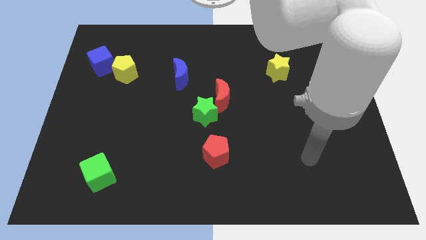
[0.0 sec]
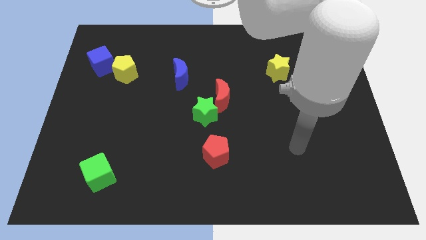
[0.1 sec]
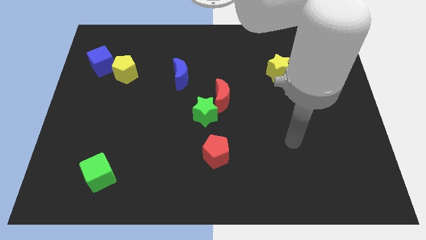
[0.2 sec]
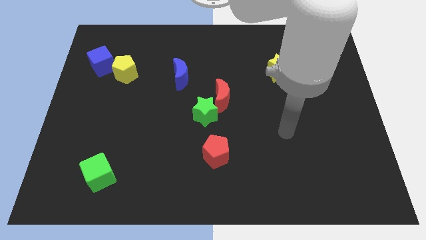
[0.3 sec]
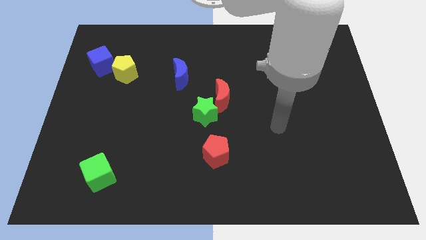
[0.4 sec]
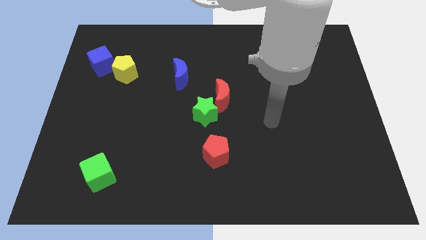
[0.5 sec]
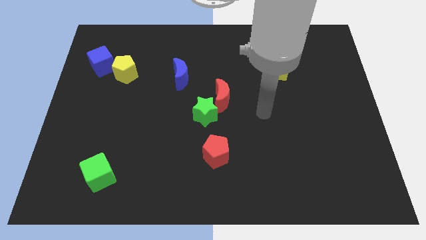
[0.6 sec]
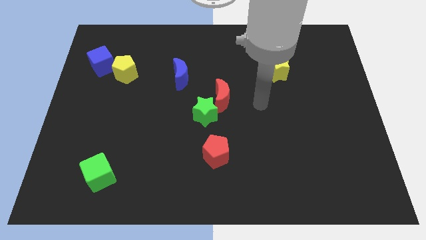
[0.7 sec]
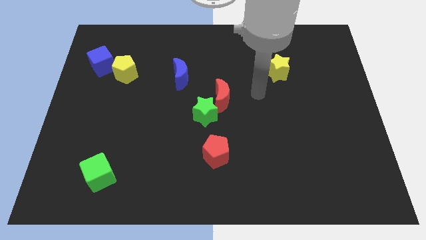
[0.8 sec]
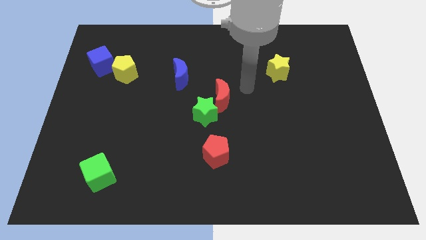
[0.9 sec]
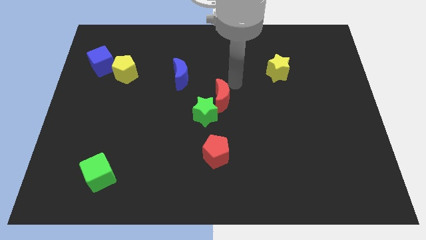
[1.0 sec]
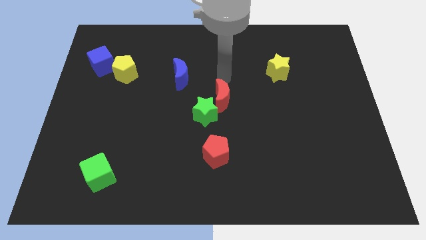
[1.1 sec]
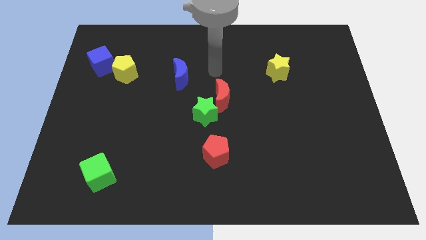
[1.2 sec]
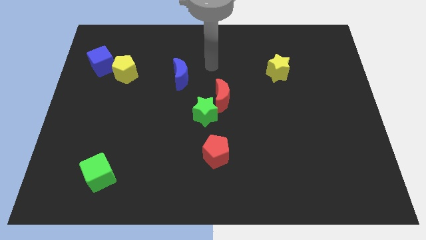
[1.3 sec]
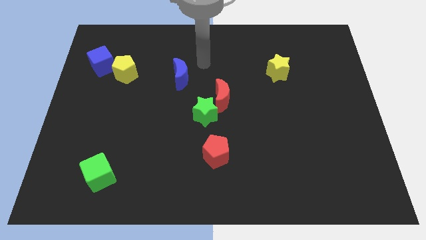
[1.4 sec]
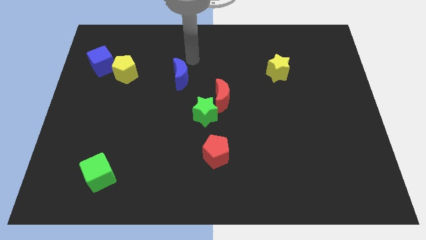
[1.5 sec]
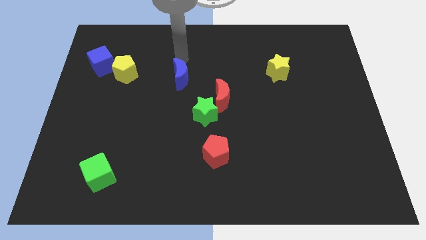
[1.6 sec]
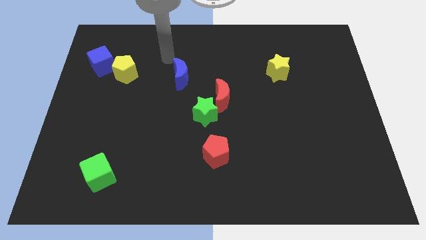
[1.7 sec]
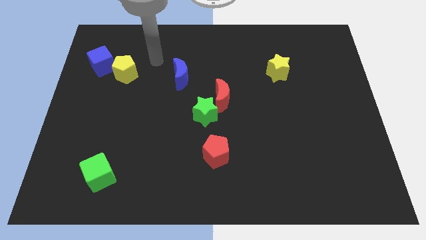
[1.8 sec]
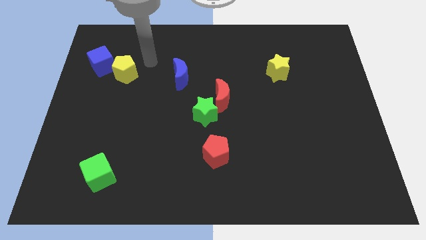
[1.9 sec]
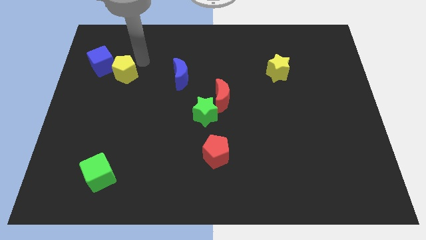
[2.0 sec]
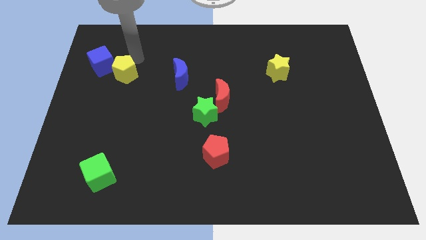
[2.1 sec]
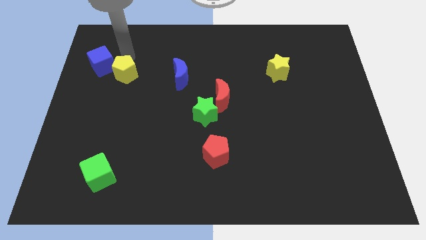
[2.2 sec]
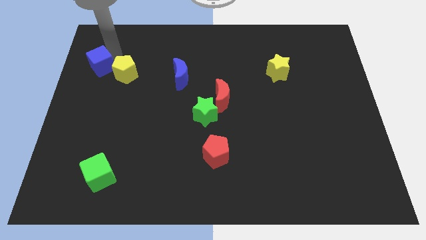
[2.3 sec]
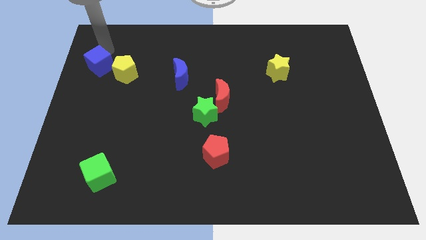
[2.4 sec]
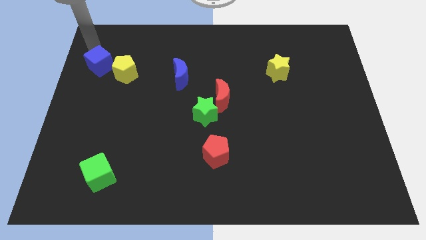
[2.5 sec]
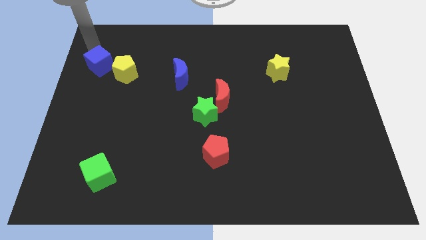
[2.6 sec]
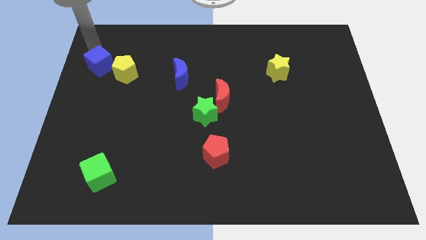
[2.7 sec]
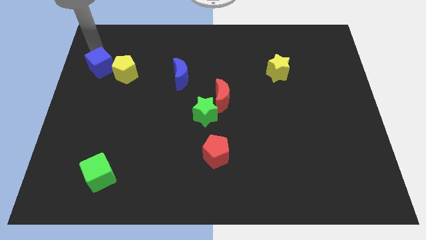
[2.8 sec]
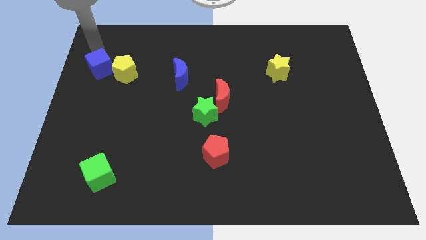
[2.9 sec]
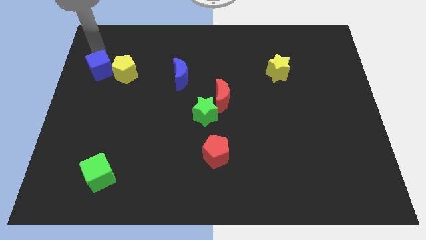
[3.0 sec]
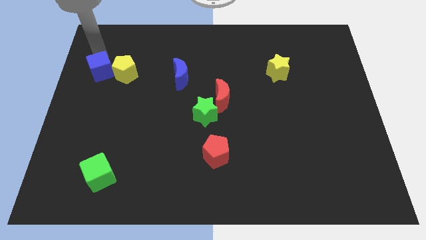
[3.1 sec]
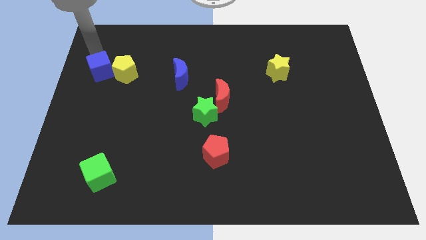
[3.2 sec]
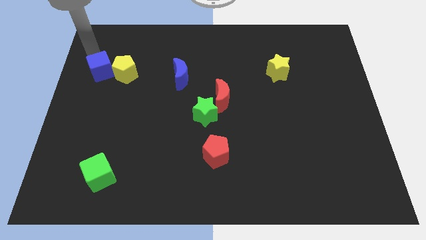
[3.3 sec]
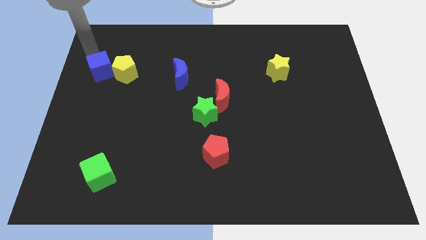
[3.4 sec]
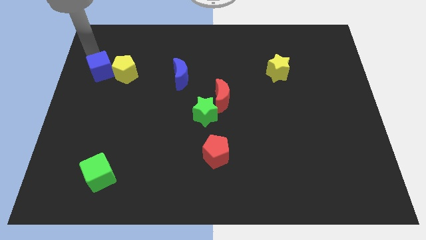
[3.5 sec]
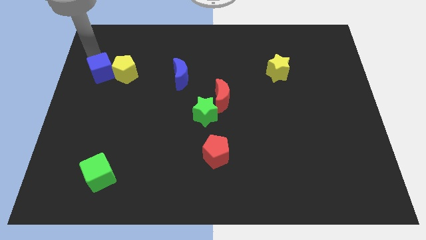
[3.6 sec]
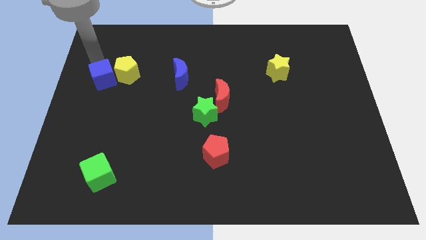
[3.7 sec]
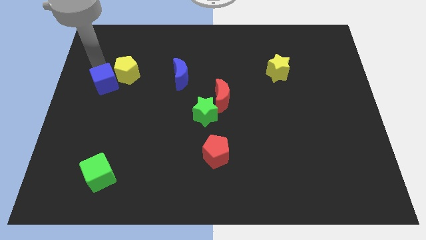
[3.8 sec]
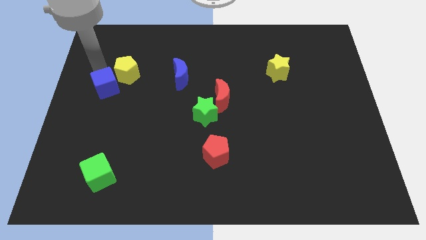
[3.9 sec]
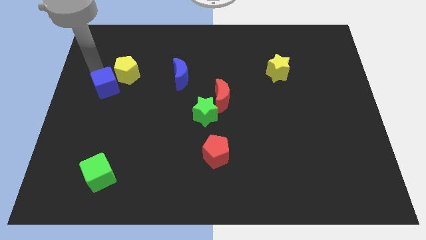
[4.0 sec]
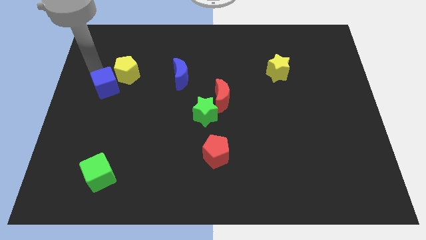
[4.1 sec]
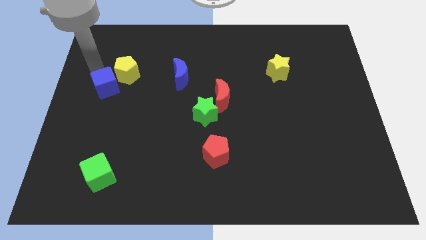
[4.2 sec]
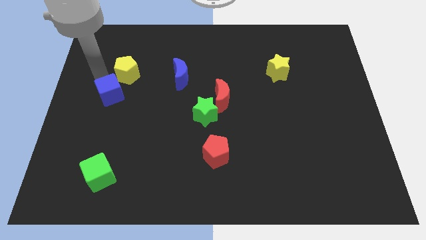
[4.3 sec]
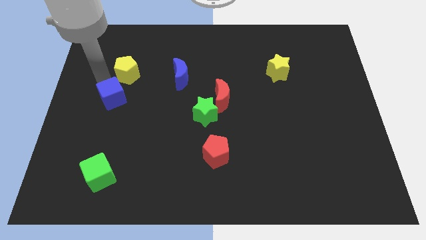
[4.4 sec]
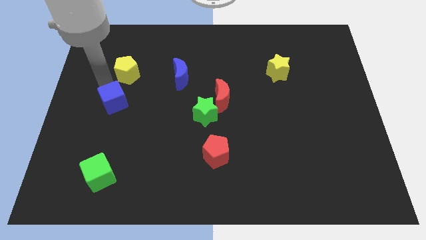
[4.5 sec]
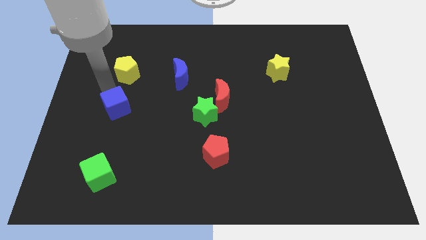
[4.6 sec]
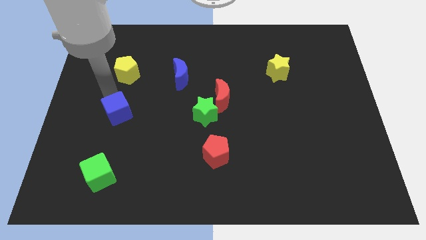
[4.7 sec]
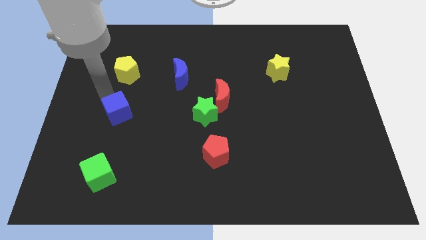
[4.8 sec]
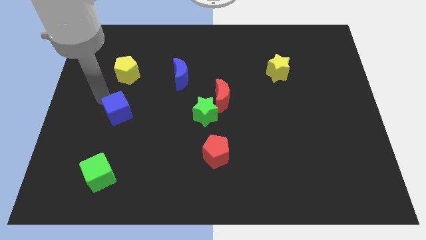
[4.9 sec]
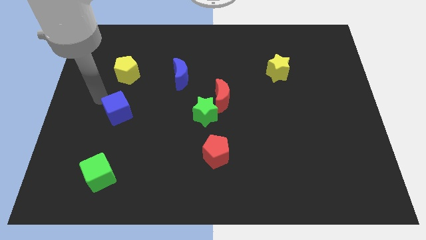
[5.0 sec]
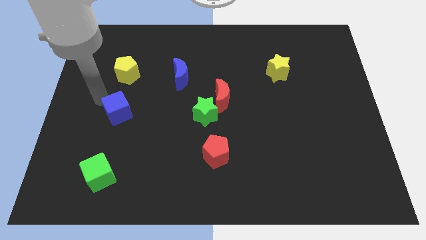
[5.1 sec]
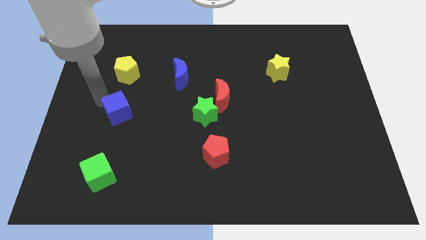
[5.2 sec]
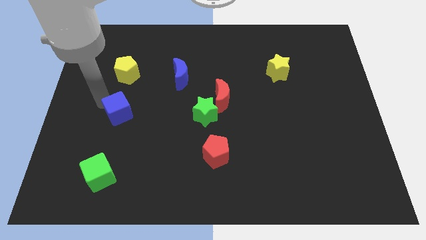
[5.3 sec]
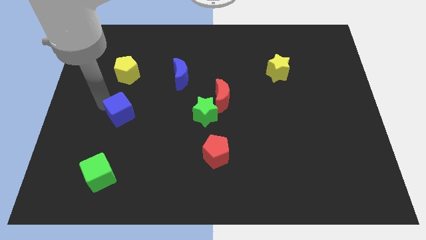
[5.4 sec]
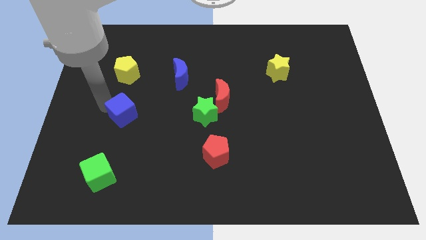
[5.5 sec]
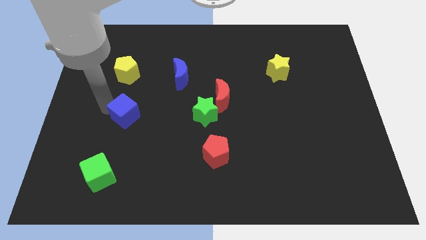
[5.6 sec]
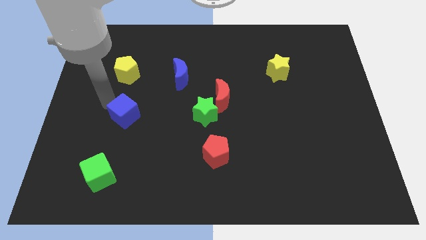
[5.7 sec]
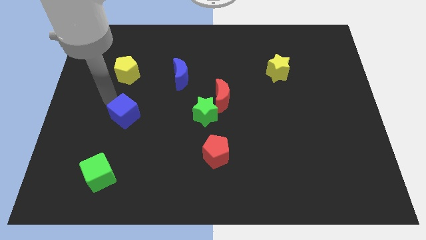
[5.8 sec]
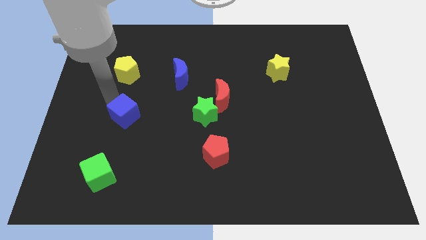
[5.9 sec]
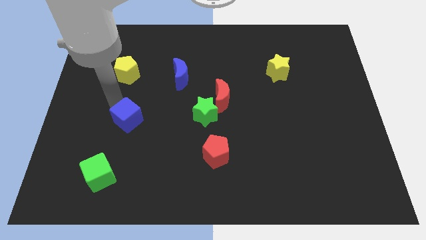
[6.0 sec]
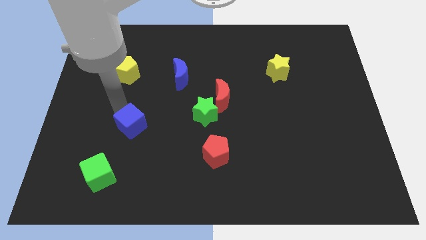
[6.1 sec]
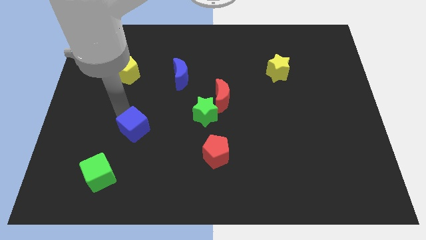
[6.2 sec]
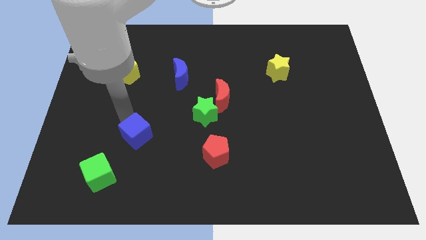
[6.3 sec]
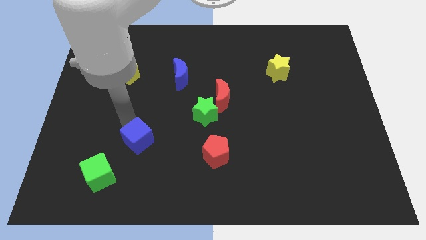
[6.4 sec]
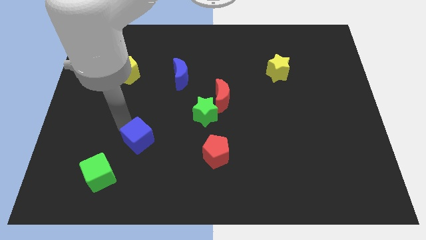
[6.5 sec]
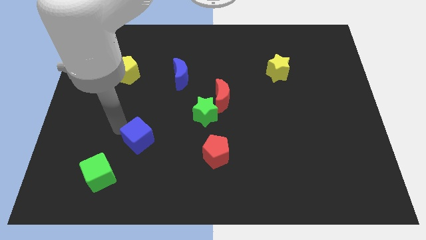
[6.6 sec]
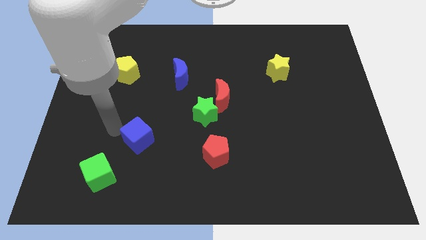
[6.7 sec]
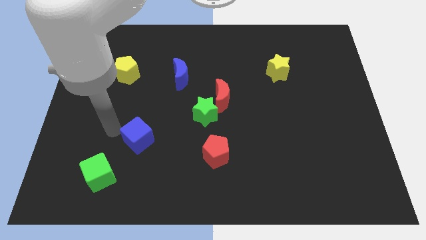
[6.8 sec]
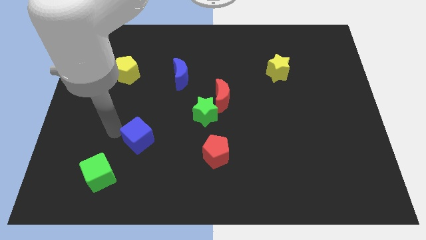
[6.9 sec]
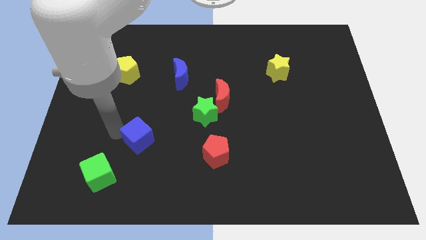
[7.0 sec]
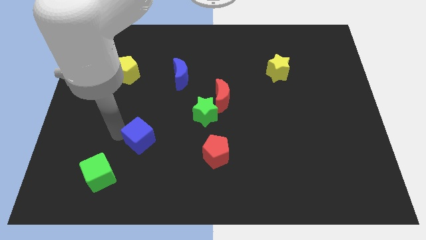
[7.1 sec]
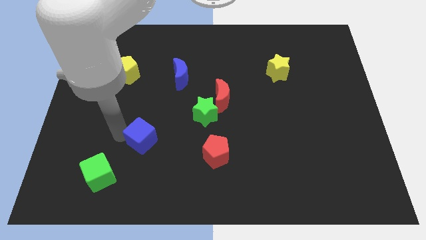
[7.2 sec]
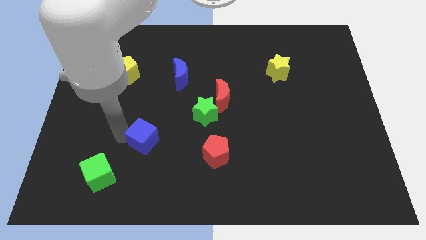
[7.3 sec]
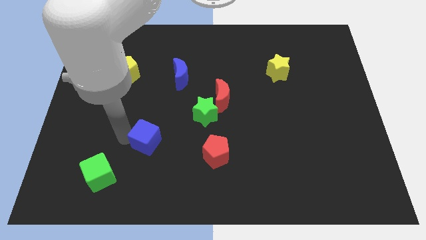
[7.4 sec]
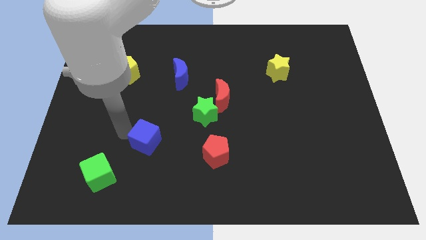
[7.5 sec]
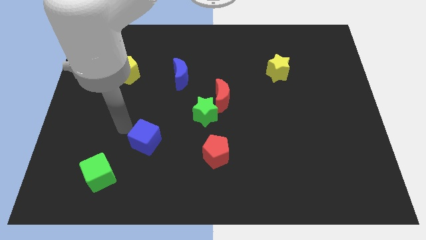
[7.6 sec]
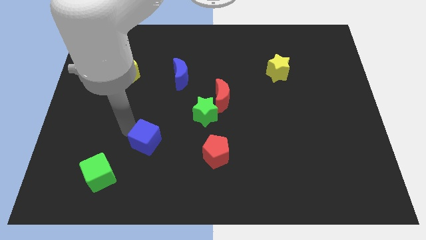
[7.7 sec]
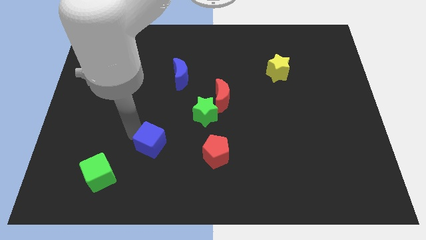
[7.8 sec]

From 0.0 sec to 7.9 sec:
move the blue cube to the left side of the red pentagon
